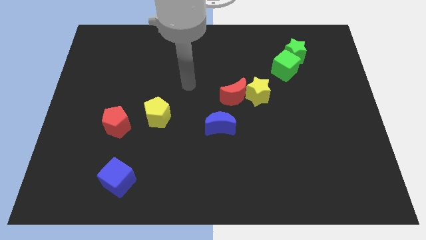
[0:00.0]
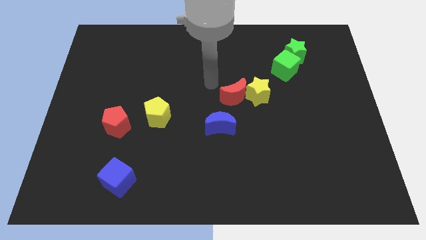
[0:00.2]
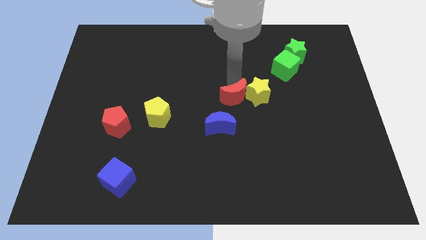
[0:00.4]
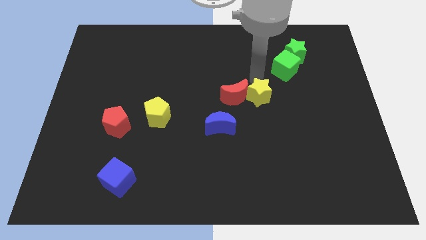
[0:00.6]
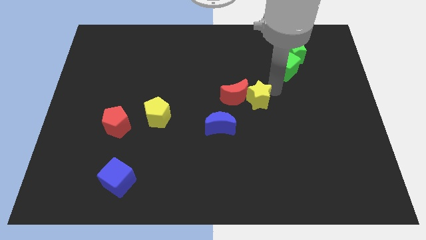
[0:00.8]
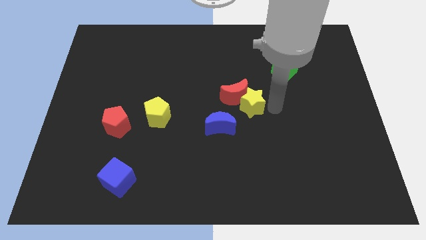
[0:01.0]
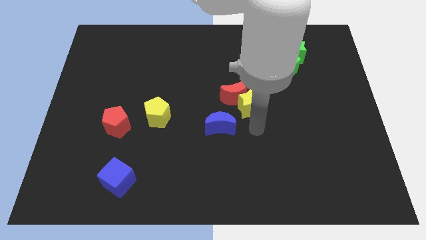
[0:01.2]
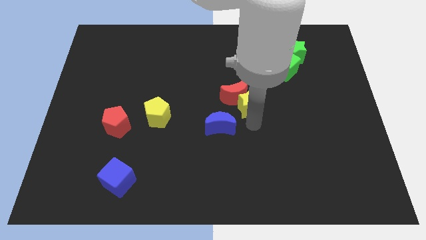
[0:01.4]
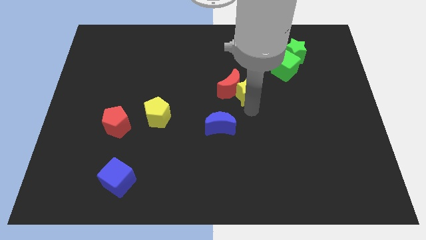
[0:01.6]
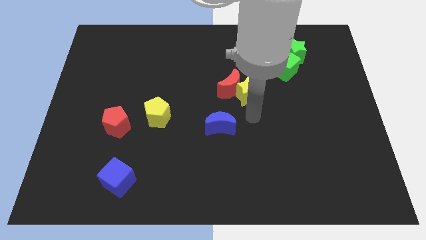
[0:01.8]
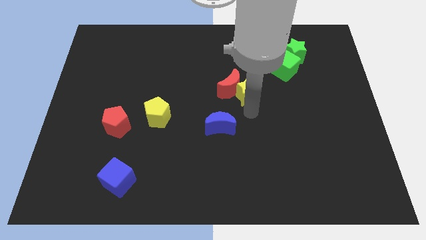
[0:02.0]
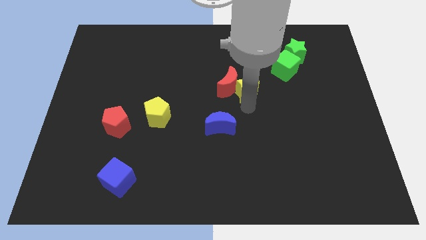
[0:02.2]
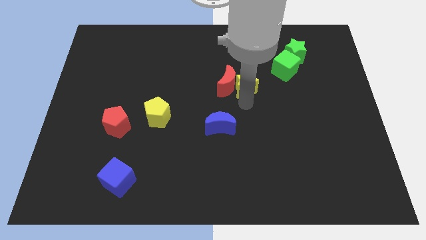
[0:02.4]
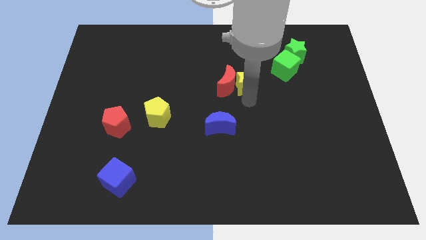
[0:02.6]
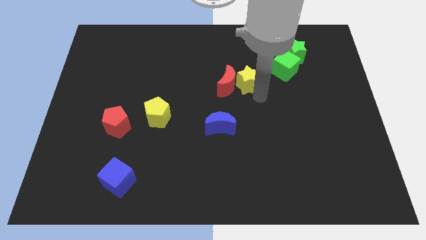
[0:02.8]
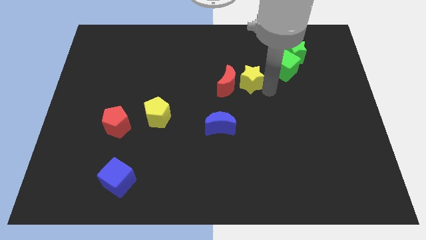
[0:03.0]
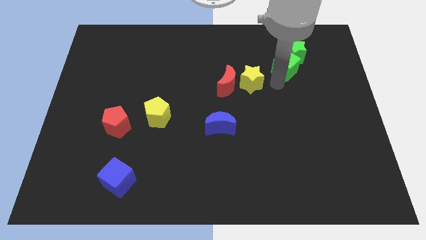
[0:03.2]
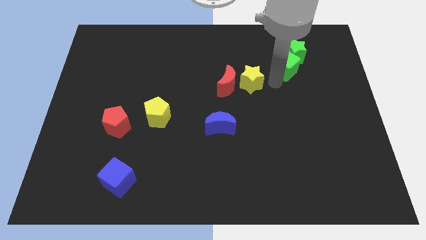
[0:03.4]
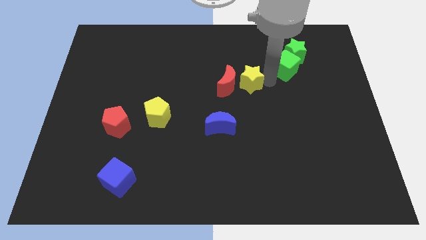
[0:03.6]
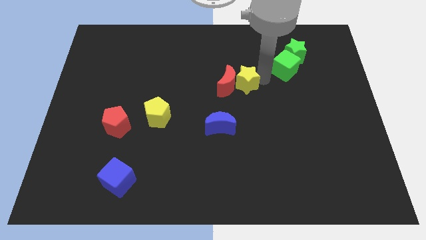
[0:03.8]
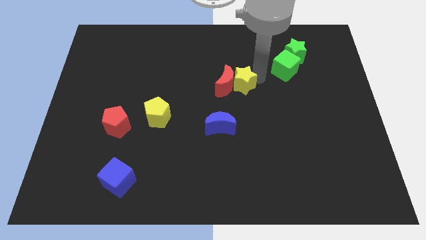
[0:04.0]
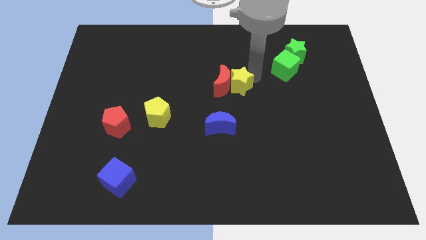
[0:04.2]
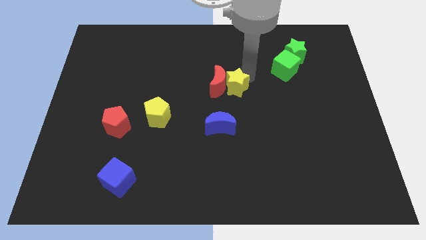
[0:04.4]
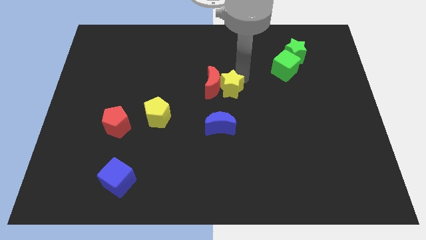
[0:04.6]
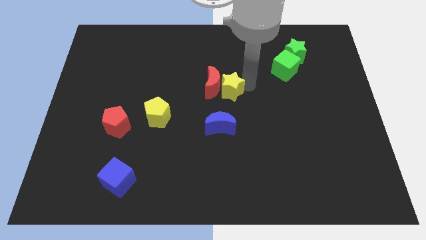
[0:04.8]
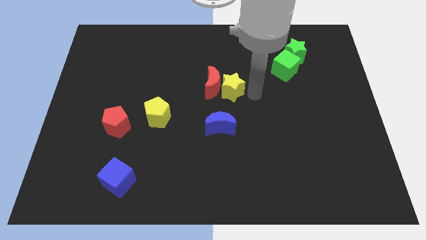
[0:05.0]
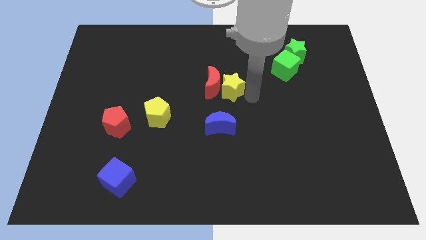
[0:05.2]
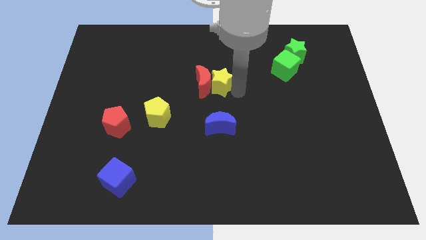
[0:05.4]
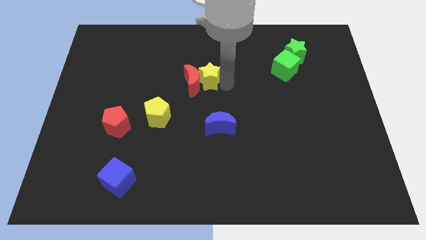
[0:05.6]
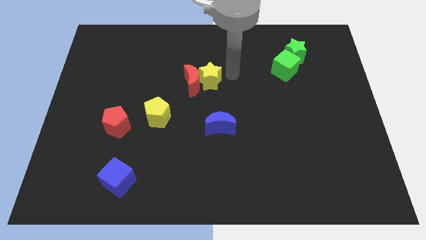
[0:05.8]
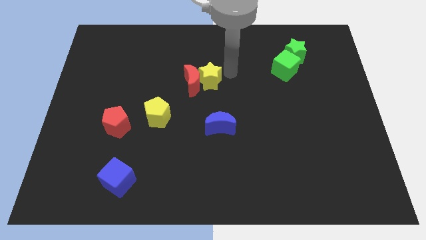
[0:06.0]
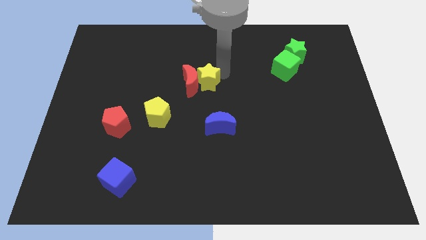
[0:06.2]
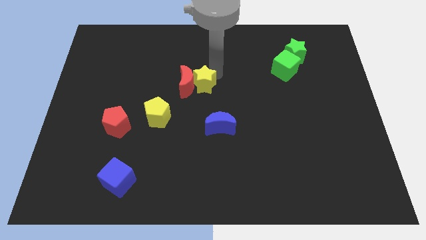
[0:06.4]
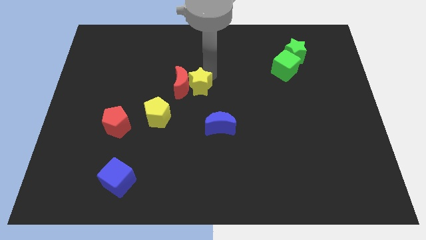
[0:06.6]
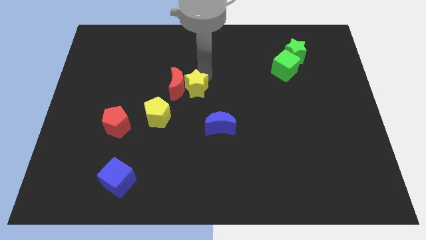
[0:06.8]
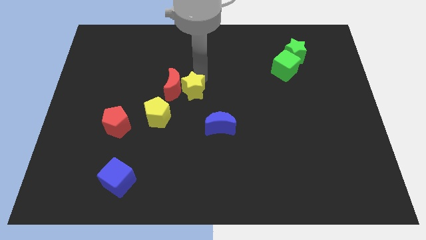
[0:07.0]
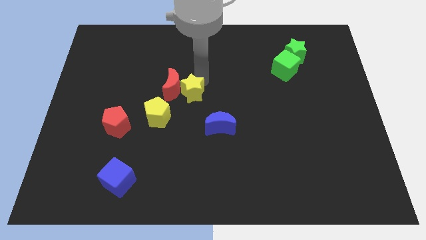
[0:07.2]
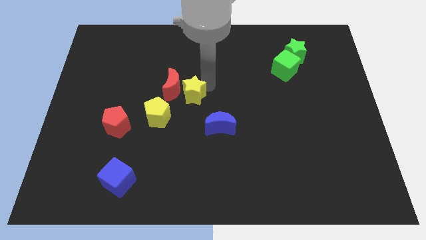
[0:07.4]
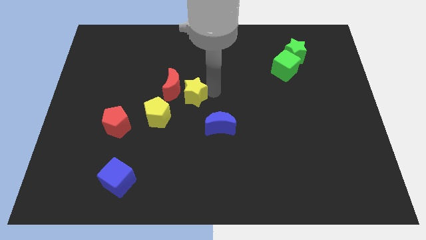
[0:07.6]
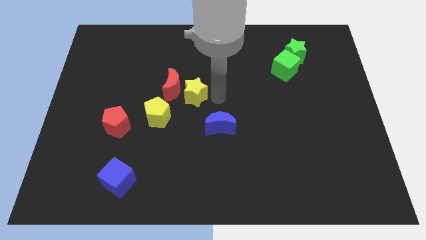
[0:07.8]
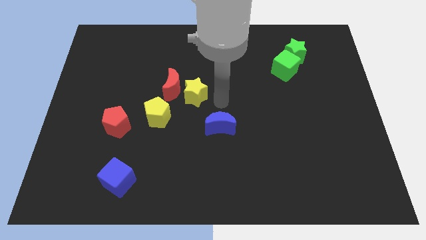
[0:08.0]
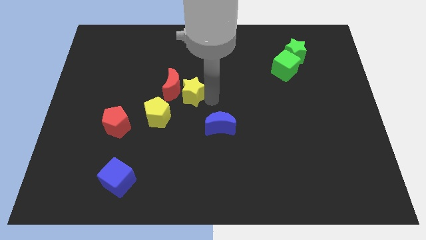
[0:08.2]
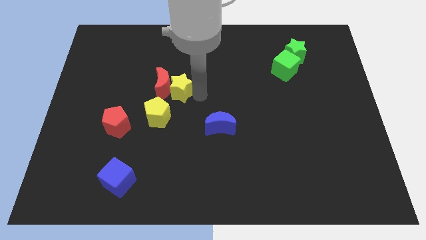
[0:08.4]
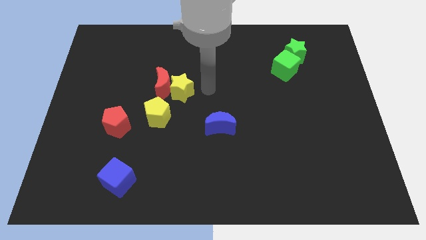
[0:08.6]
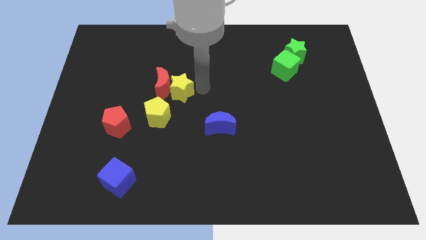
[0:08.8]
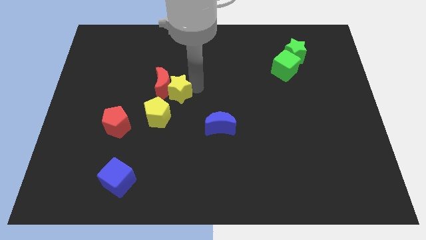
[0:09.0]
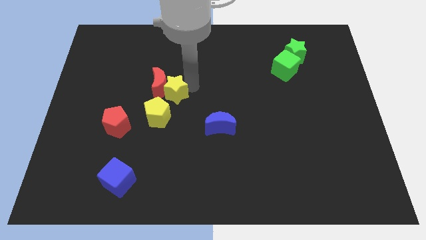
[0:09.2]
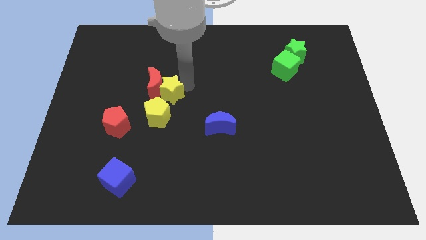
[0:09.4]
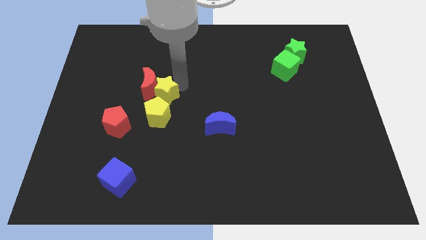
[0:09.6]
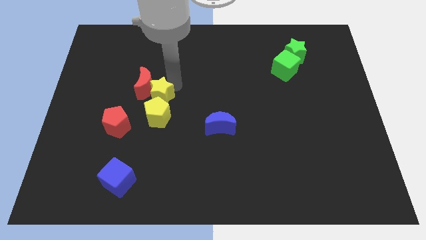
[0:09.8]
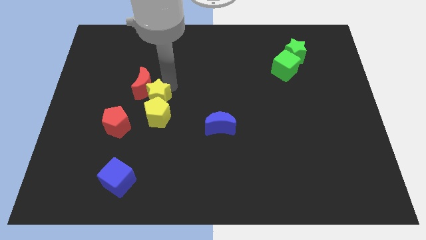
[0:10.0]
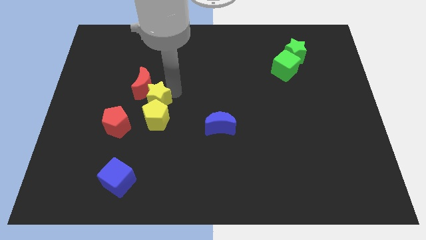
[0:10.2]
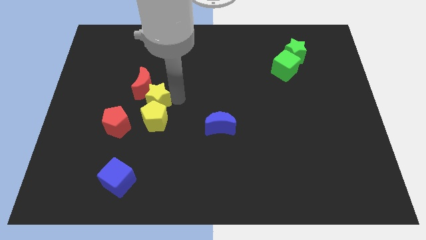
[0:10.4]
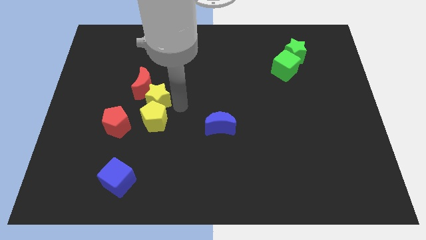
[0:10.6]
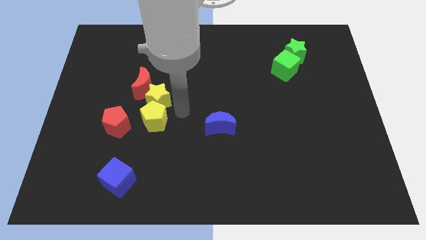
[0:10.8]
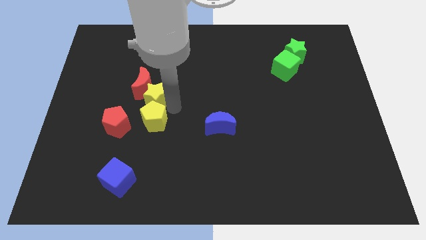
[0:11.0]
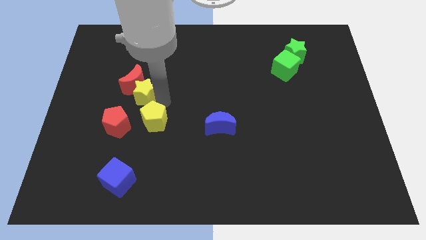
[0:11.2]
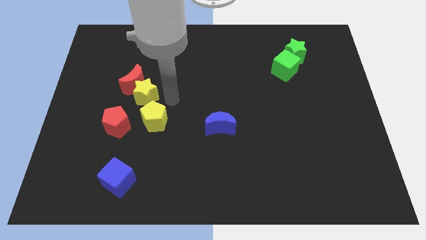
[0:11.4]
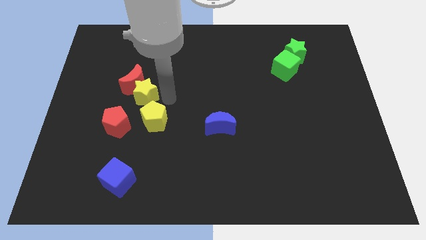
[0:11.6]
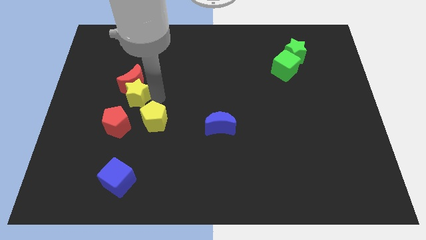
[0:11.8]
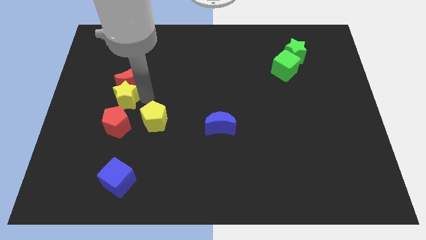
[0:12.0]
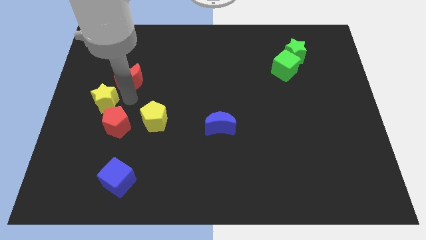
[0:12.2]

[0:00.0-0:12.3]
move the yellow star to the center left

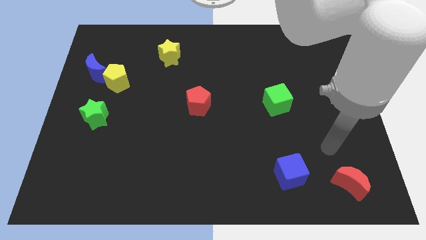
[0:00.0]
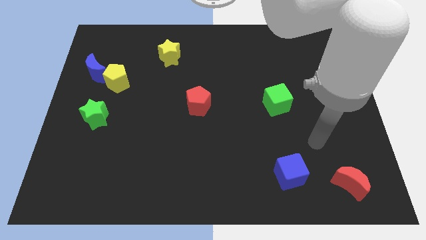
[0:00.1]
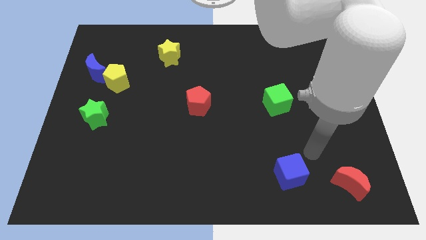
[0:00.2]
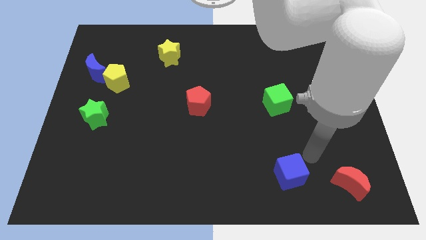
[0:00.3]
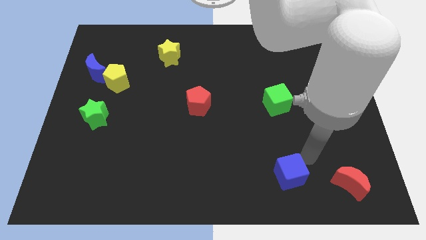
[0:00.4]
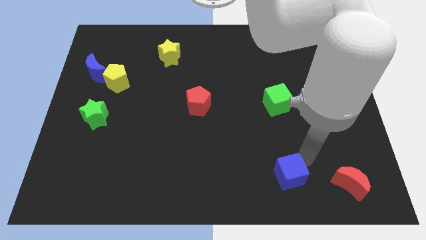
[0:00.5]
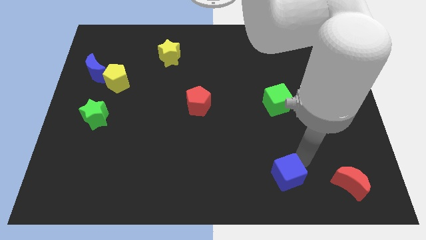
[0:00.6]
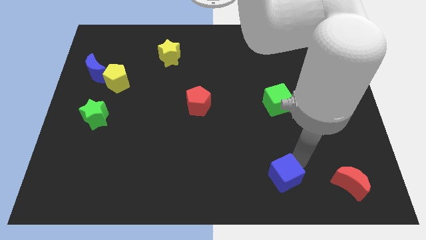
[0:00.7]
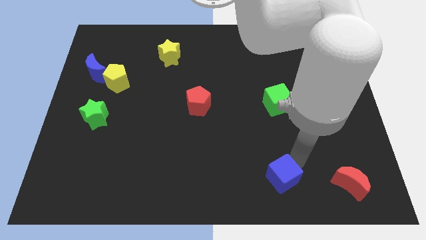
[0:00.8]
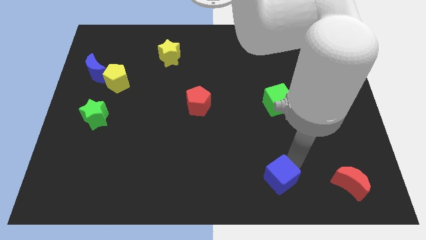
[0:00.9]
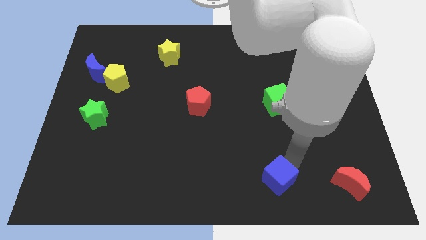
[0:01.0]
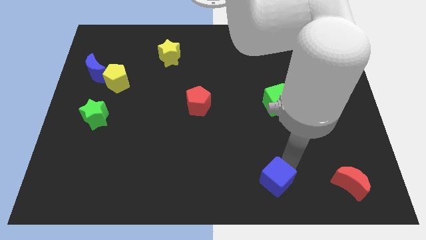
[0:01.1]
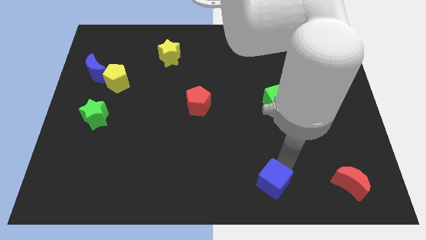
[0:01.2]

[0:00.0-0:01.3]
move the blue cube to the bottom side
